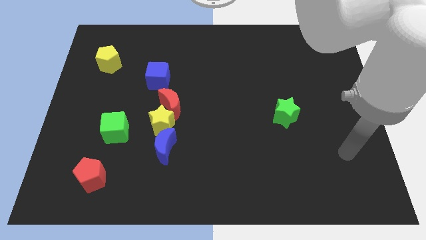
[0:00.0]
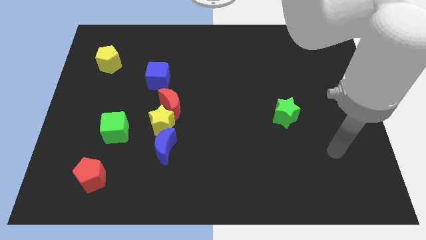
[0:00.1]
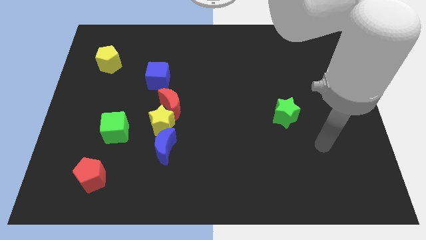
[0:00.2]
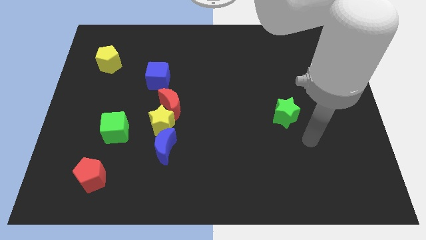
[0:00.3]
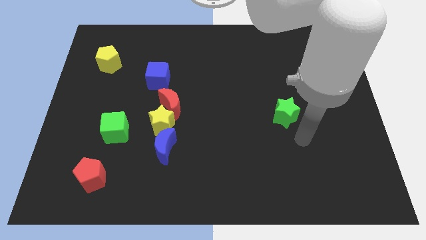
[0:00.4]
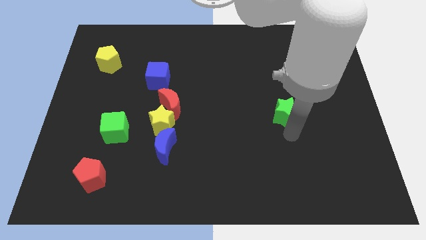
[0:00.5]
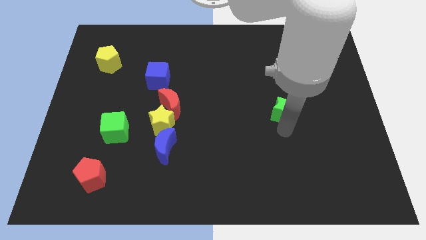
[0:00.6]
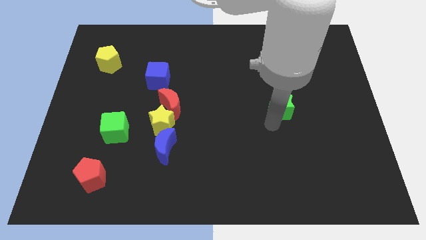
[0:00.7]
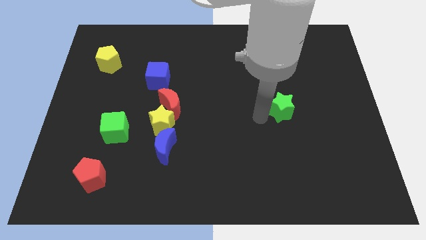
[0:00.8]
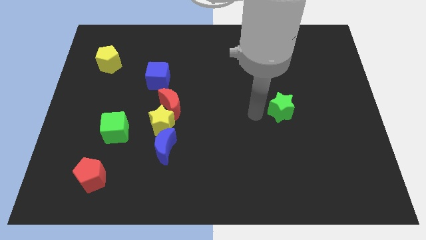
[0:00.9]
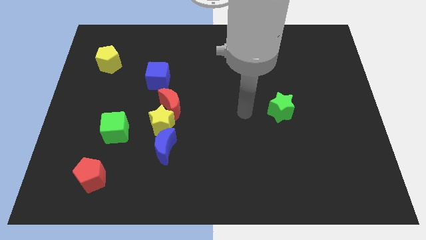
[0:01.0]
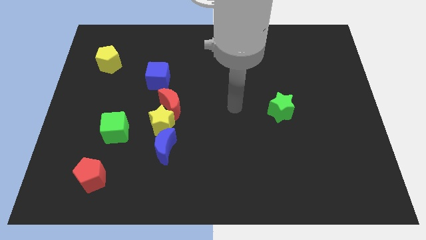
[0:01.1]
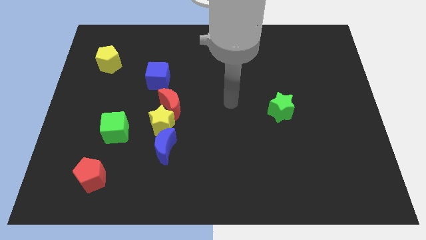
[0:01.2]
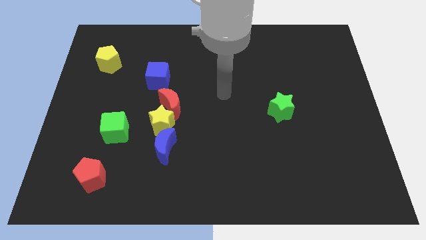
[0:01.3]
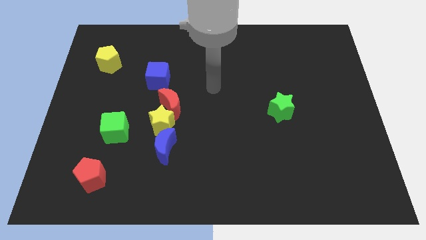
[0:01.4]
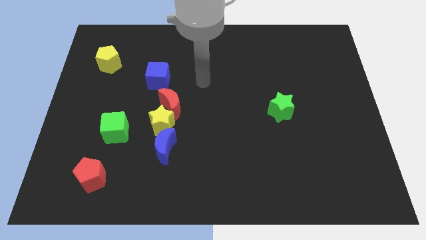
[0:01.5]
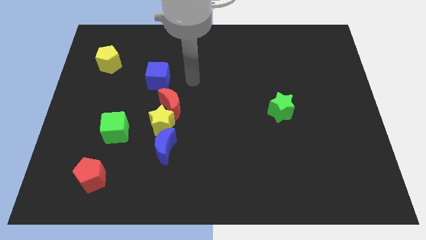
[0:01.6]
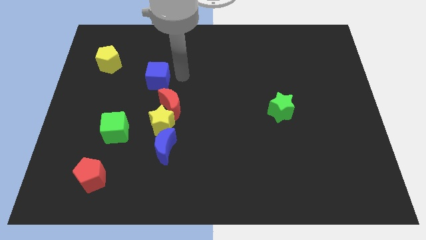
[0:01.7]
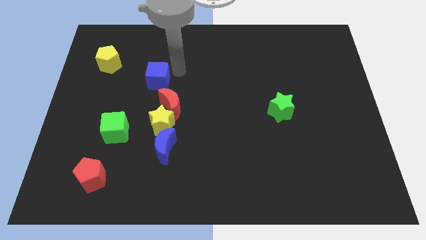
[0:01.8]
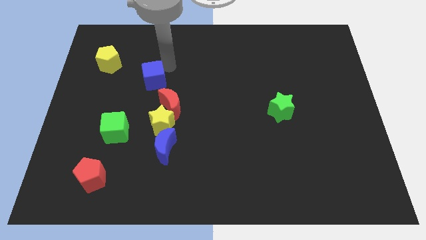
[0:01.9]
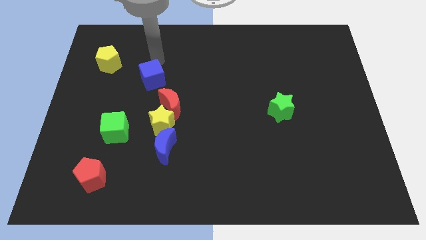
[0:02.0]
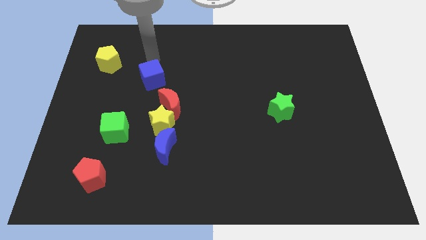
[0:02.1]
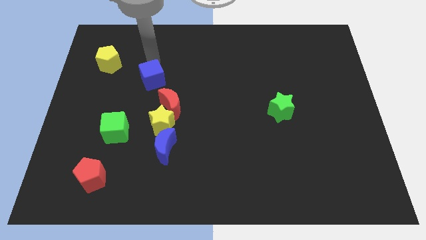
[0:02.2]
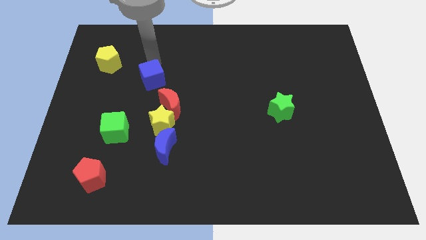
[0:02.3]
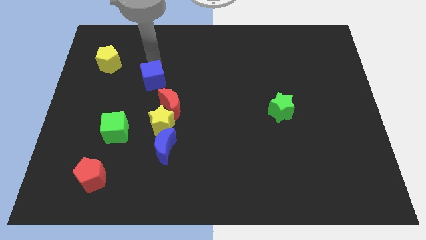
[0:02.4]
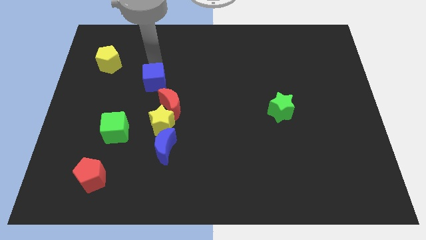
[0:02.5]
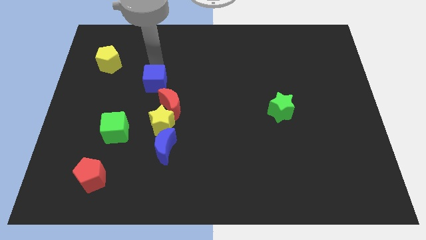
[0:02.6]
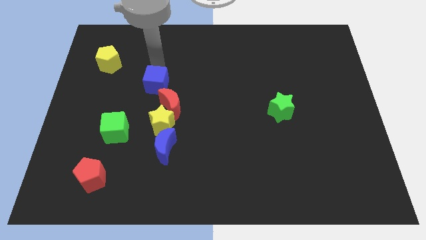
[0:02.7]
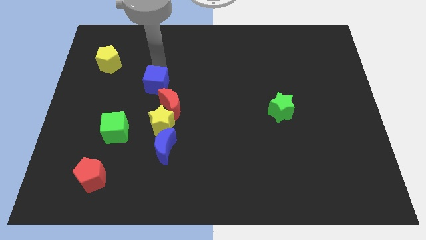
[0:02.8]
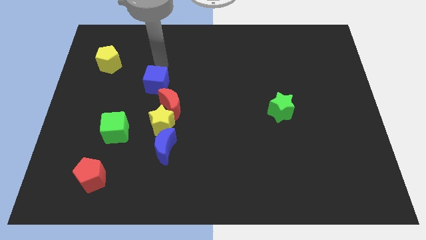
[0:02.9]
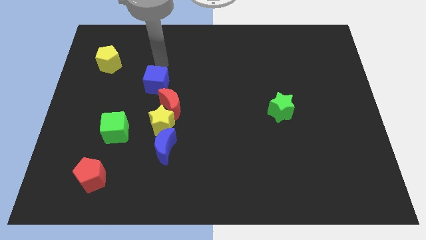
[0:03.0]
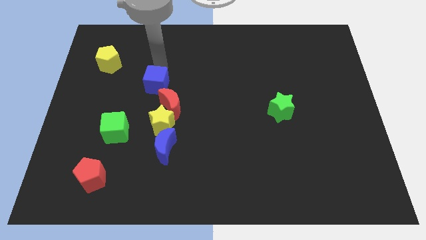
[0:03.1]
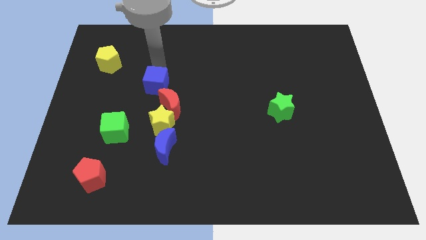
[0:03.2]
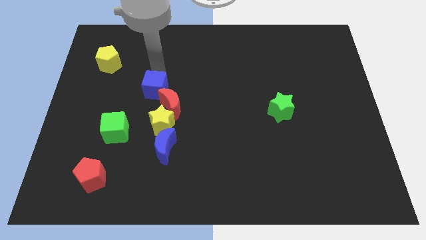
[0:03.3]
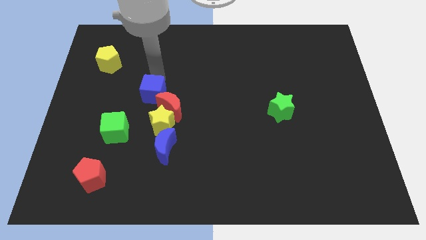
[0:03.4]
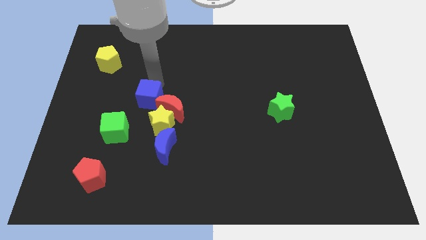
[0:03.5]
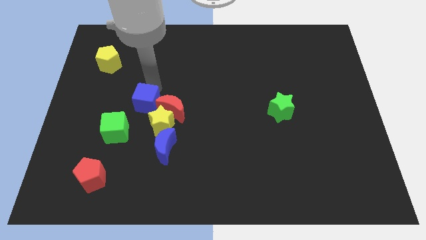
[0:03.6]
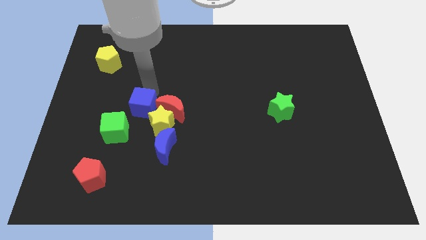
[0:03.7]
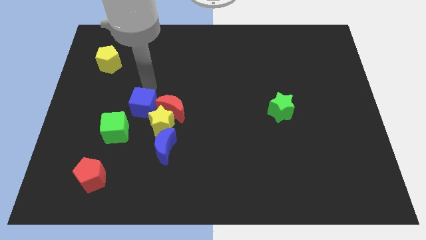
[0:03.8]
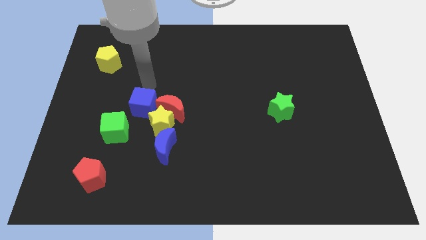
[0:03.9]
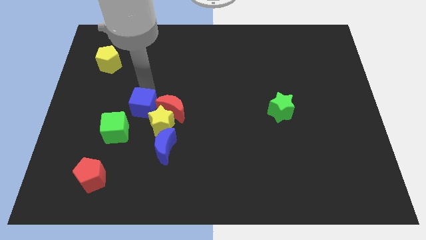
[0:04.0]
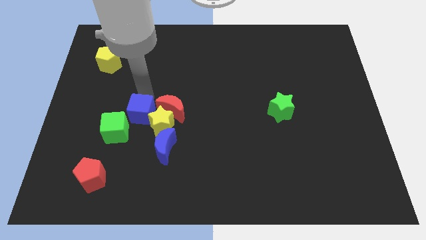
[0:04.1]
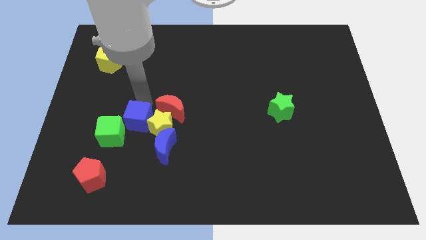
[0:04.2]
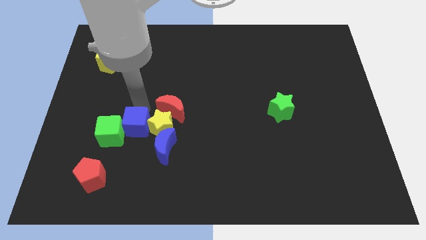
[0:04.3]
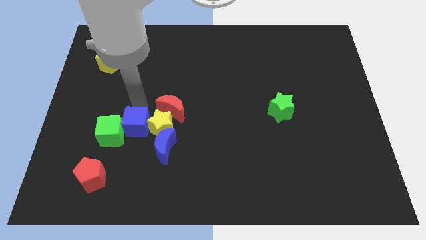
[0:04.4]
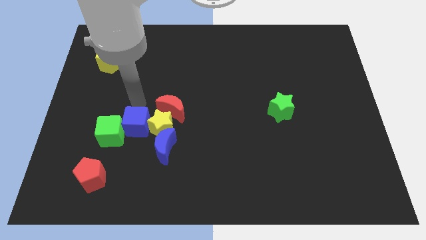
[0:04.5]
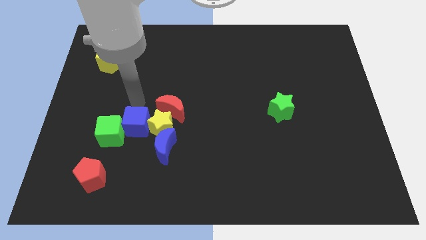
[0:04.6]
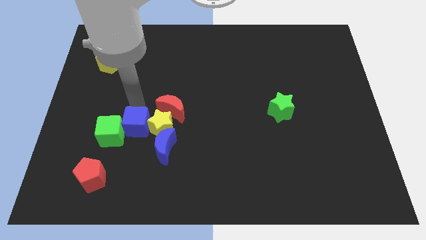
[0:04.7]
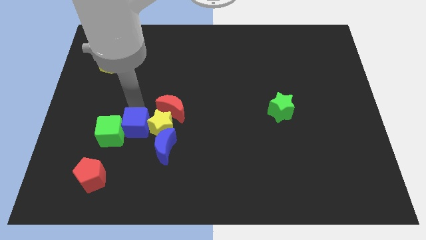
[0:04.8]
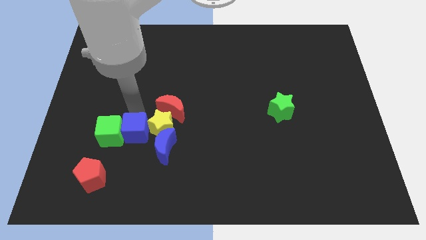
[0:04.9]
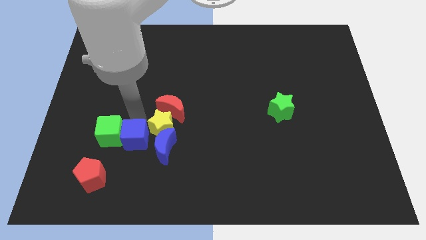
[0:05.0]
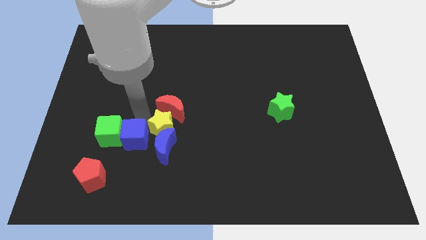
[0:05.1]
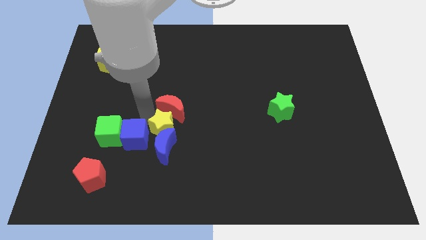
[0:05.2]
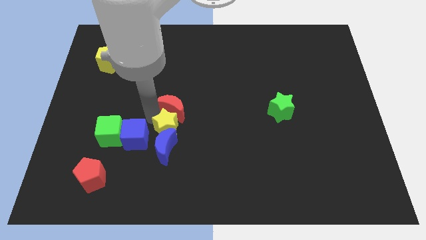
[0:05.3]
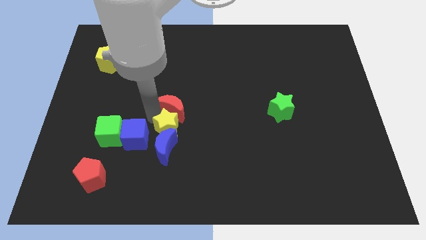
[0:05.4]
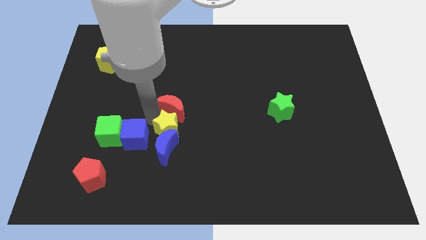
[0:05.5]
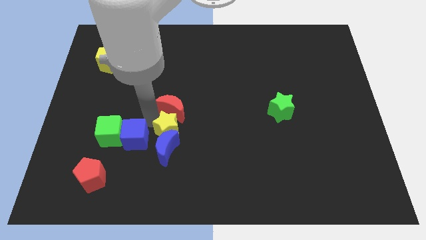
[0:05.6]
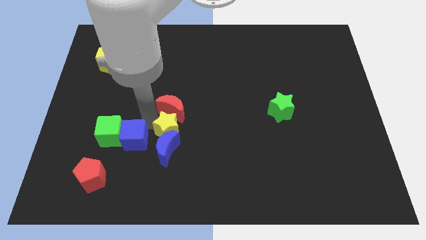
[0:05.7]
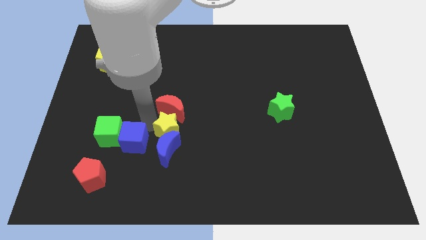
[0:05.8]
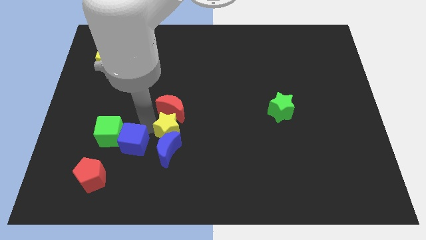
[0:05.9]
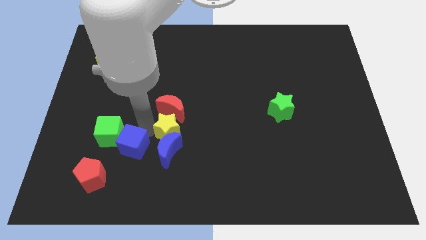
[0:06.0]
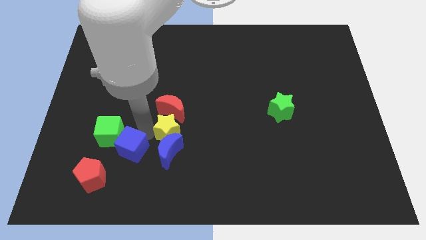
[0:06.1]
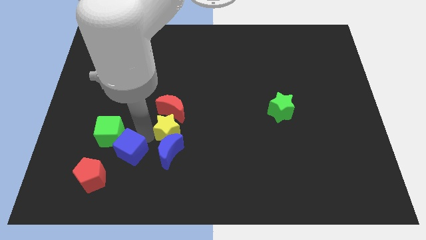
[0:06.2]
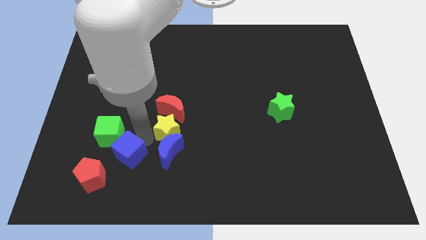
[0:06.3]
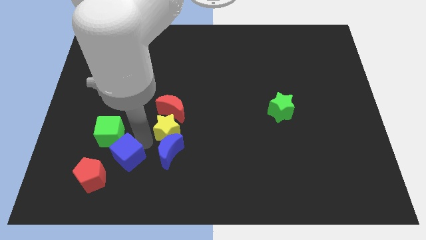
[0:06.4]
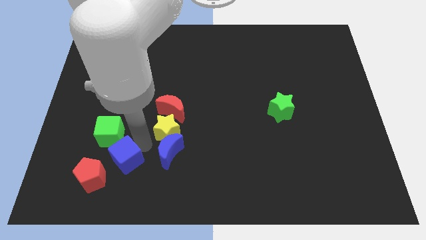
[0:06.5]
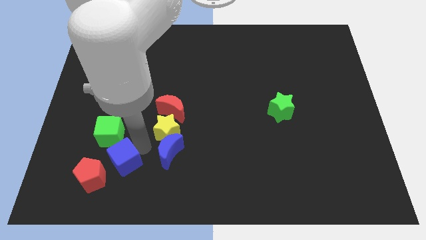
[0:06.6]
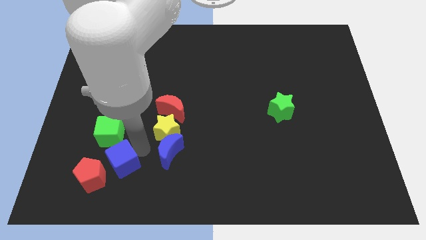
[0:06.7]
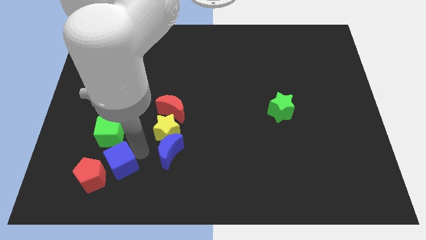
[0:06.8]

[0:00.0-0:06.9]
put the blue cube close to the red pentagon
